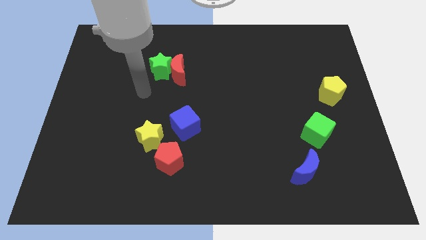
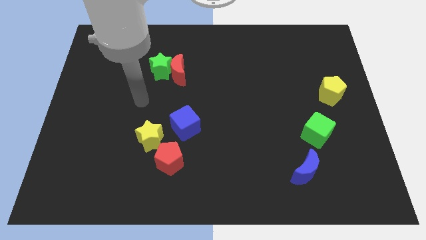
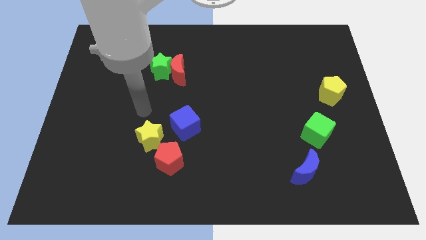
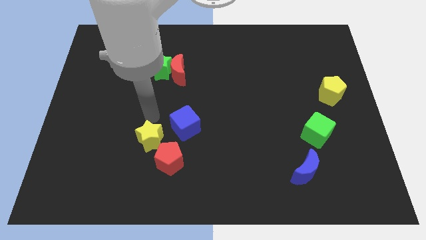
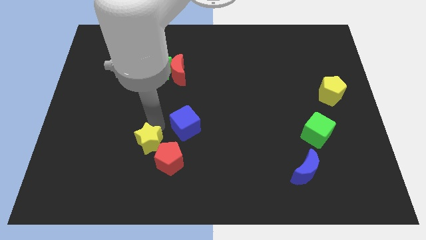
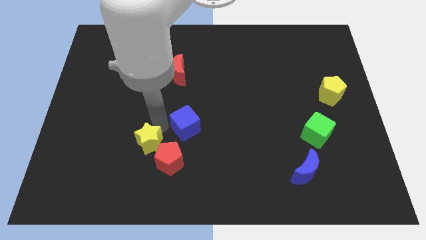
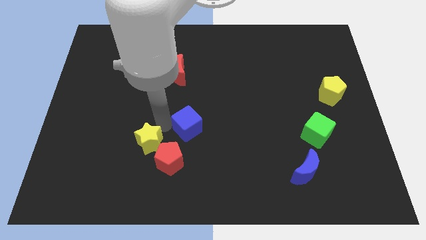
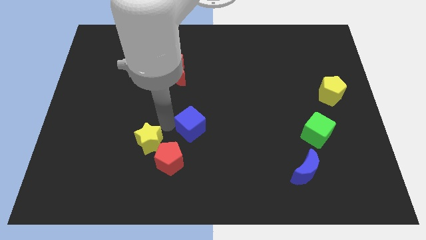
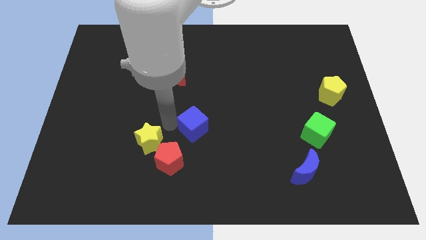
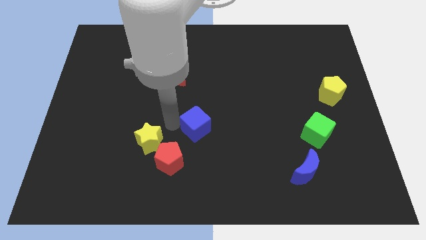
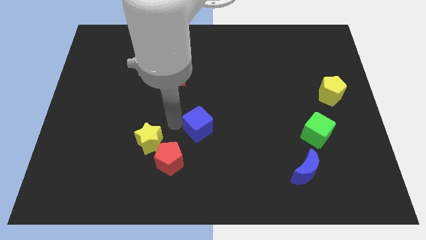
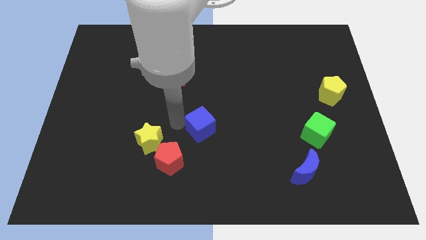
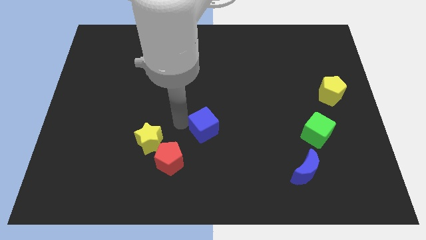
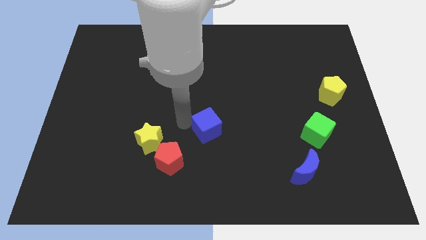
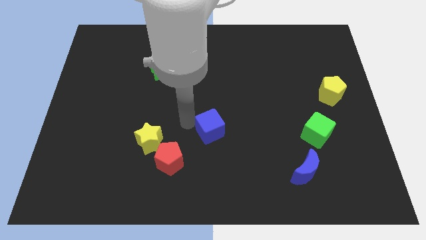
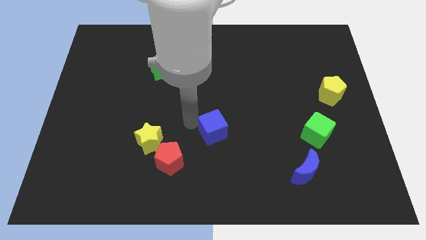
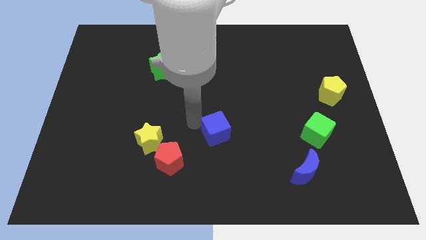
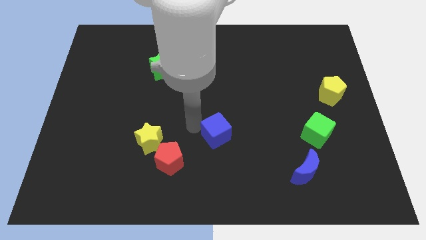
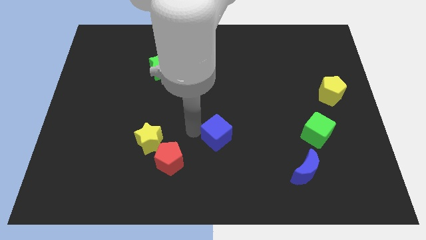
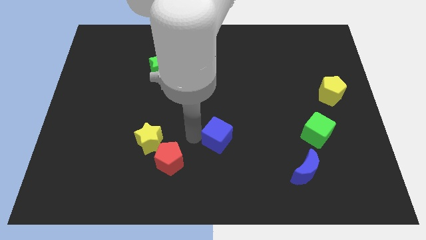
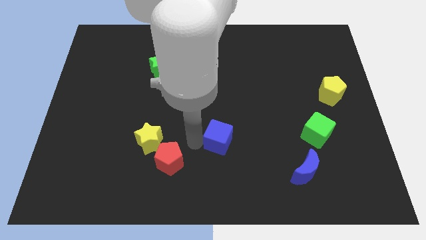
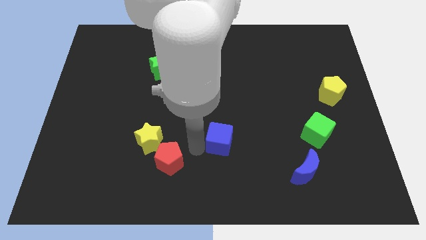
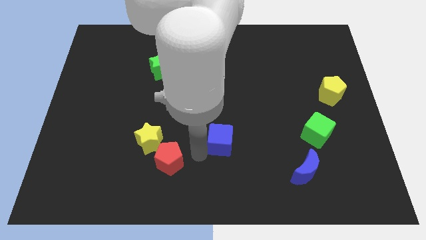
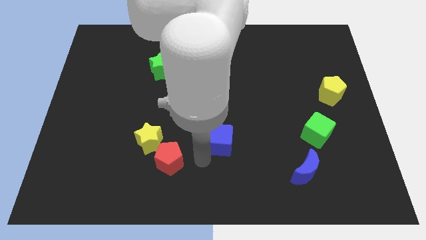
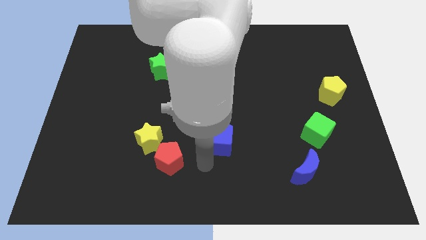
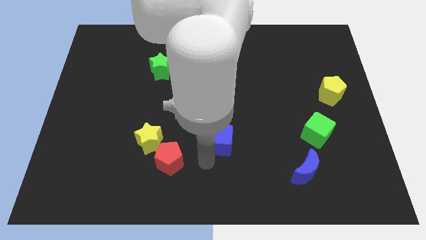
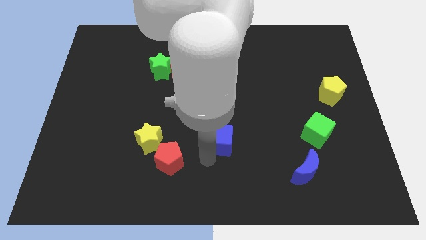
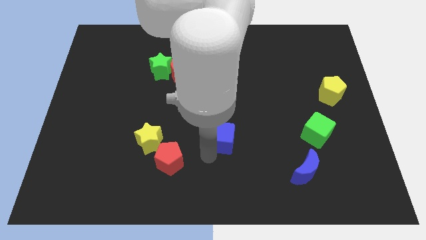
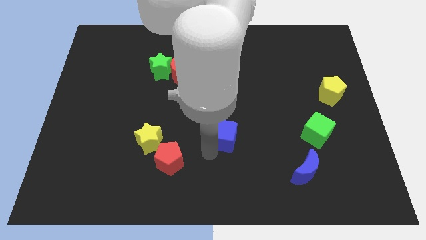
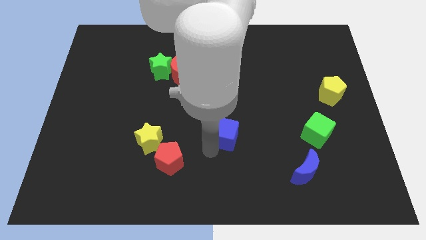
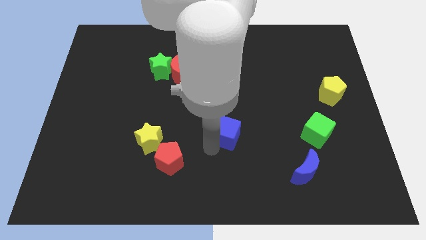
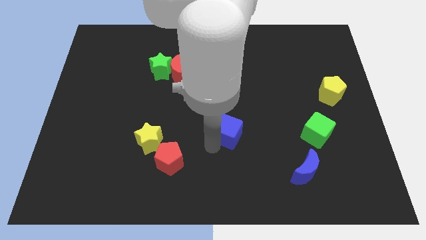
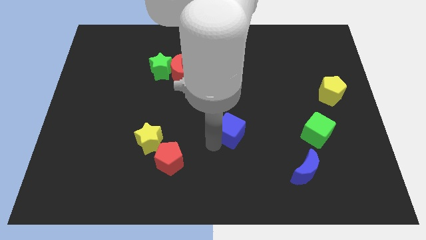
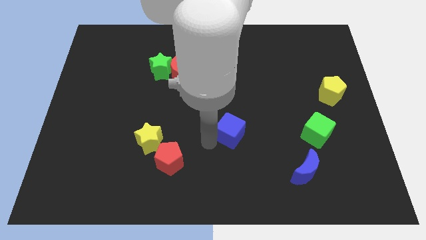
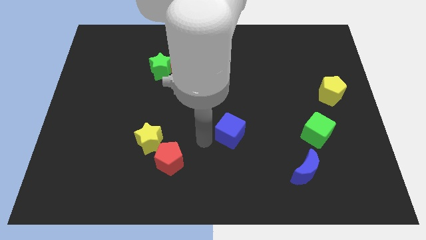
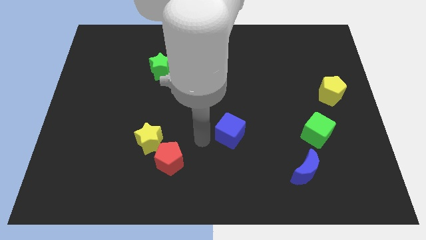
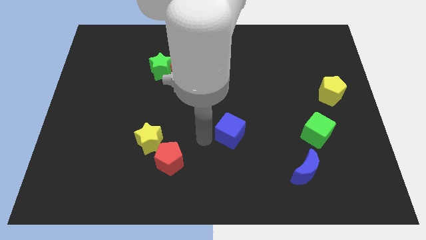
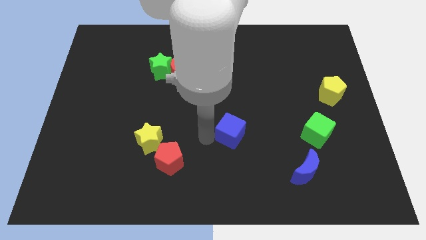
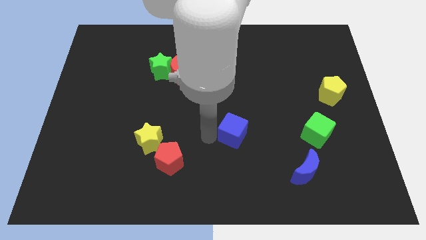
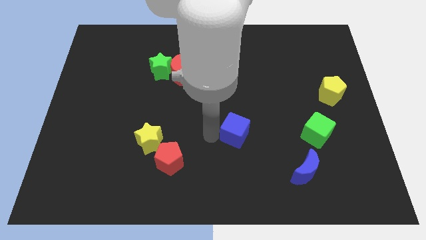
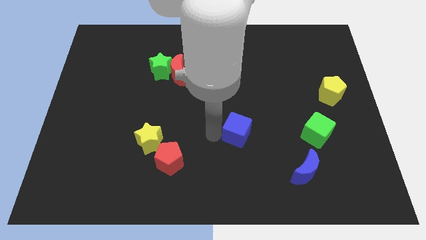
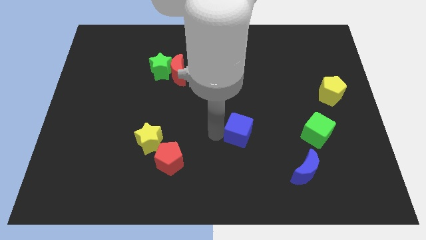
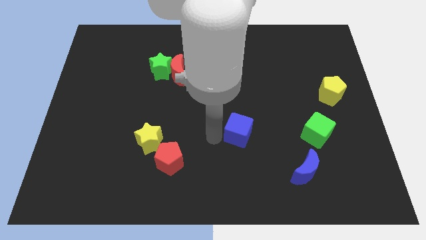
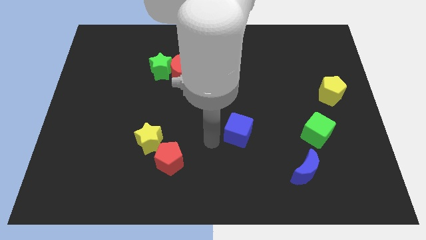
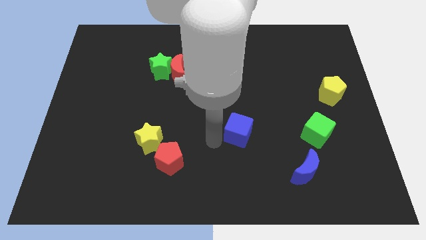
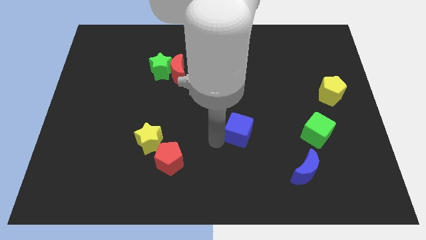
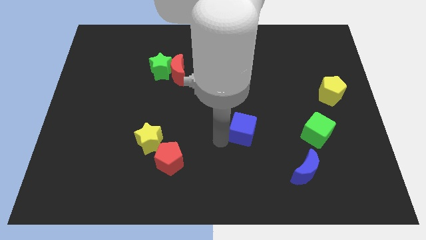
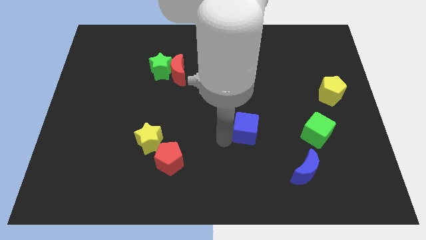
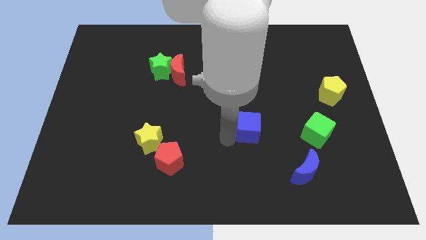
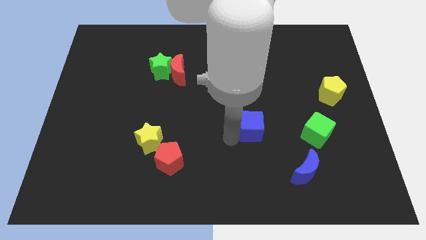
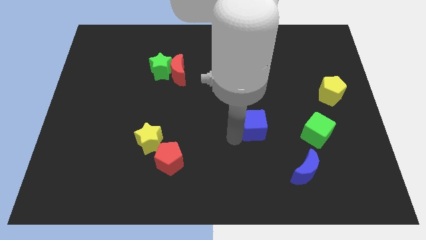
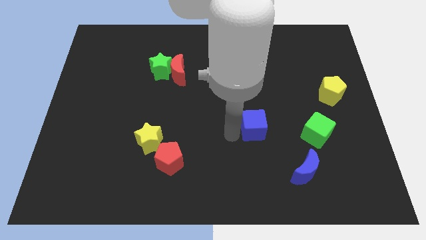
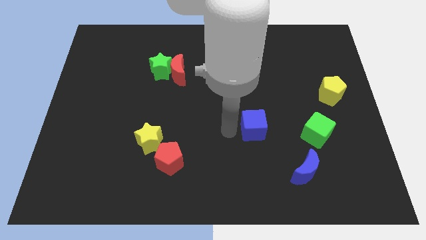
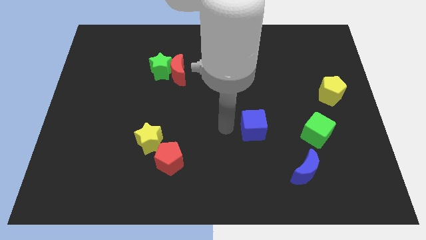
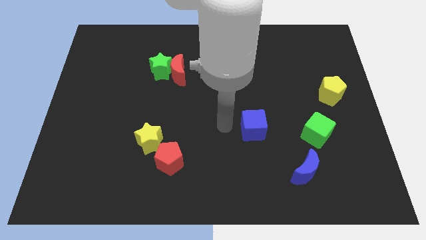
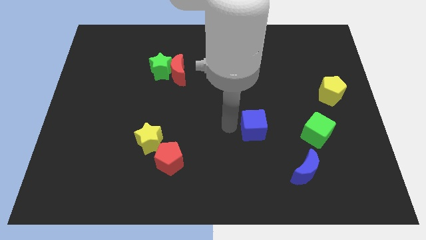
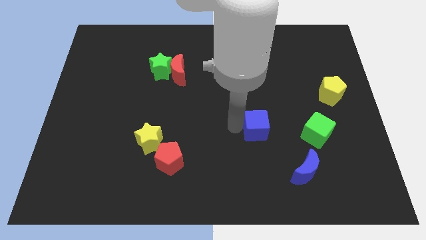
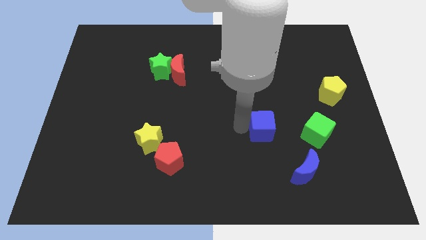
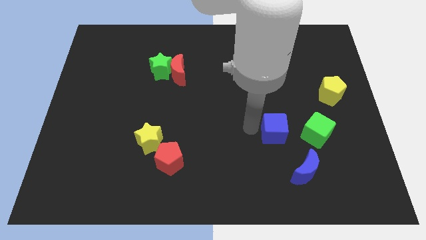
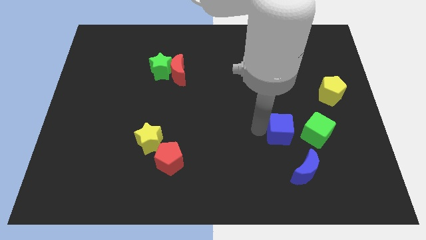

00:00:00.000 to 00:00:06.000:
move the blue cube to the top of the blue moon

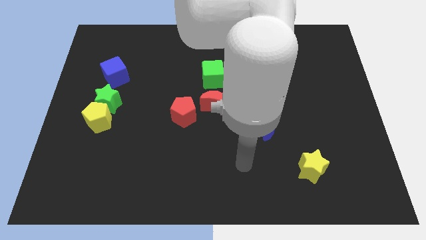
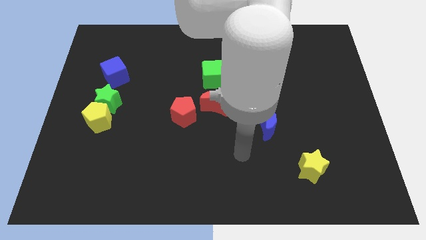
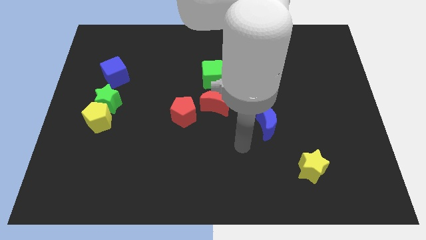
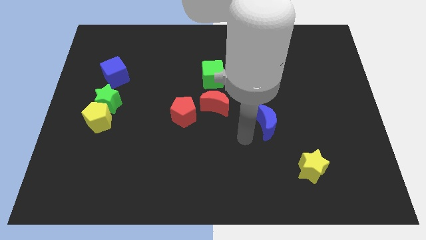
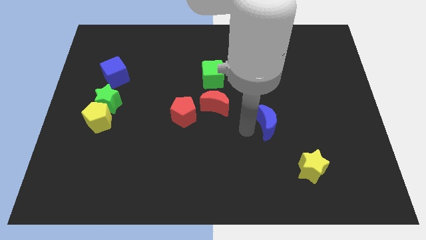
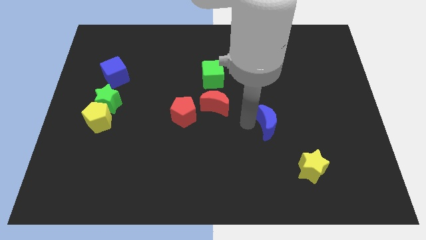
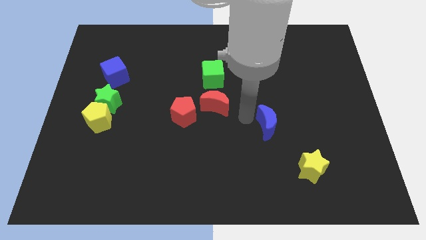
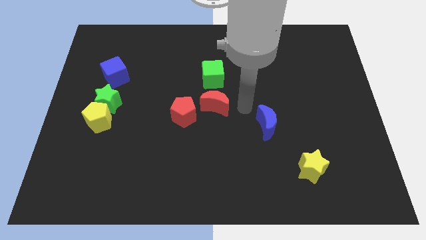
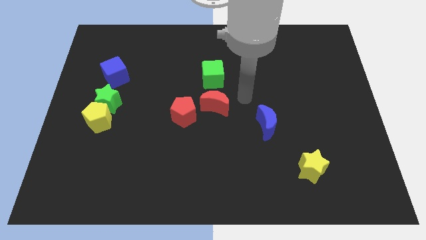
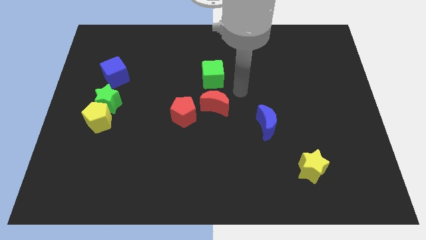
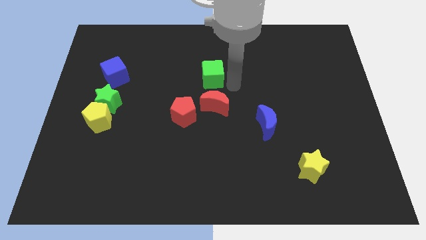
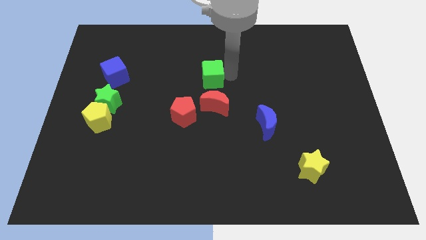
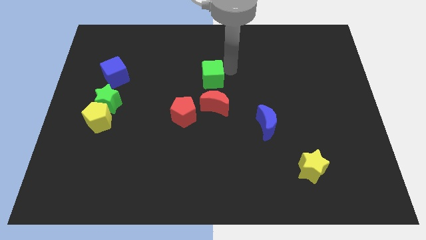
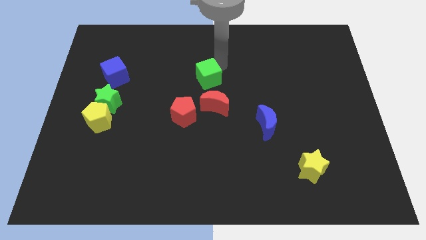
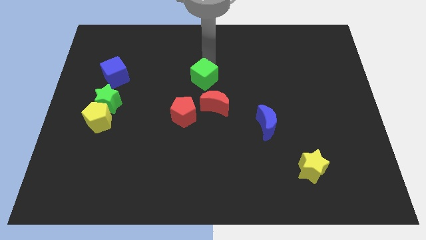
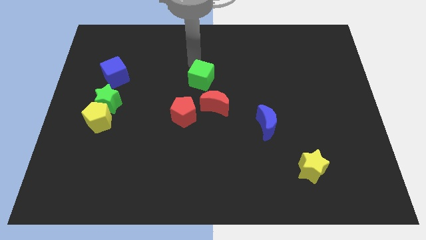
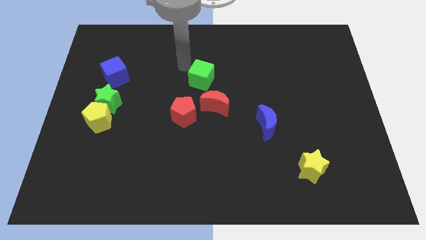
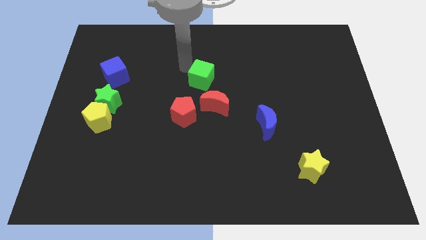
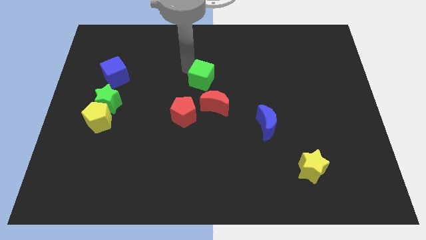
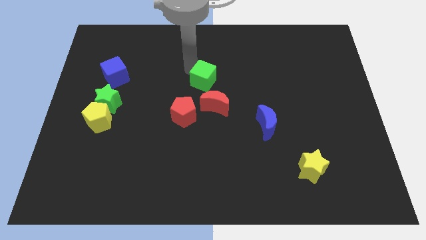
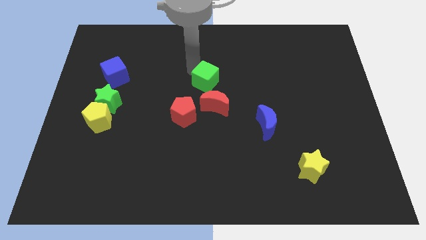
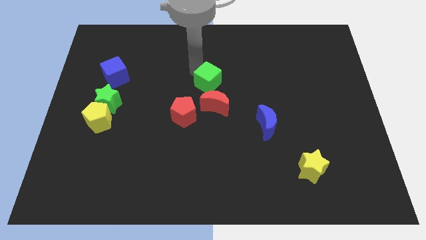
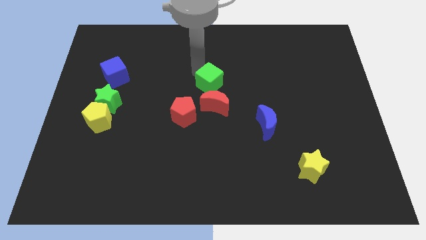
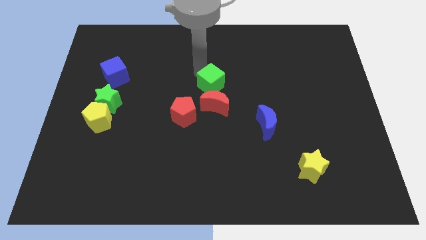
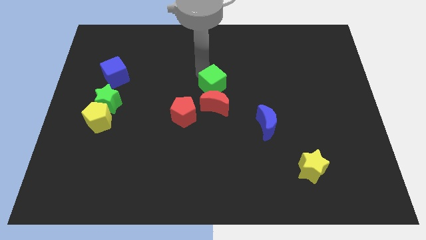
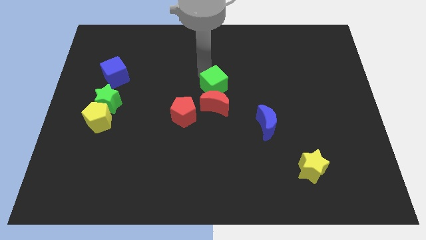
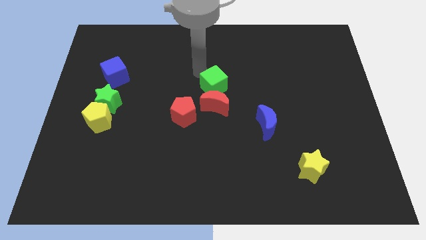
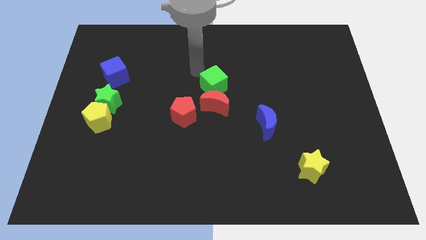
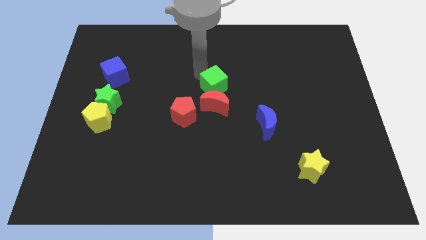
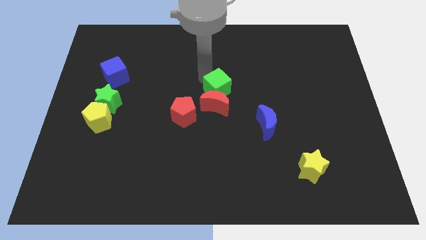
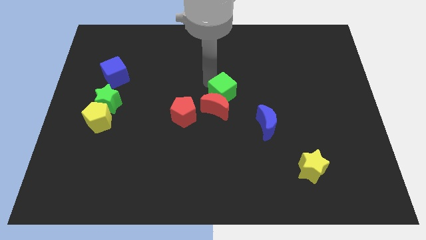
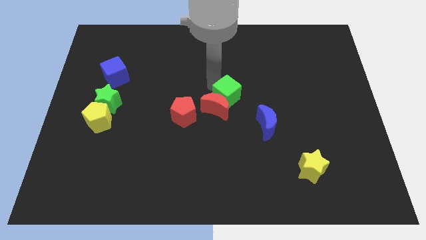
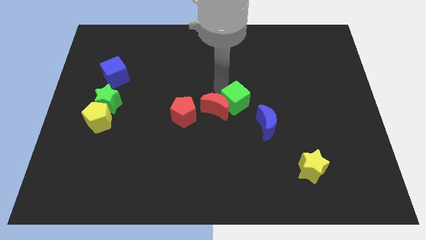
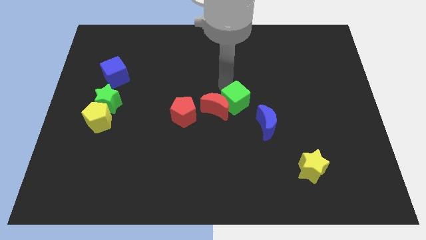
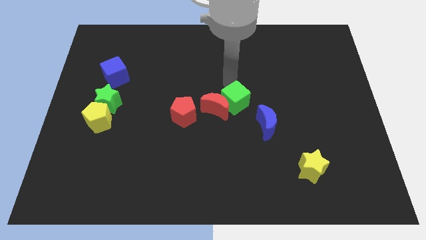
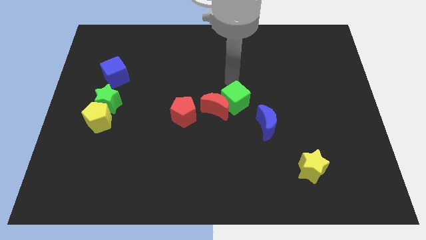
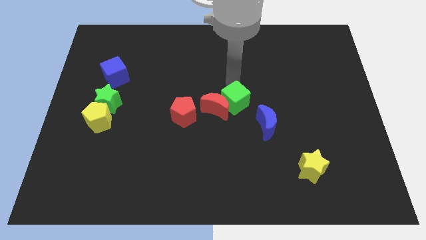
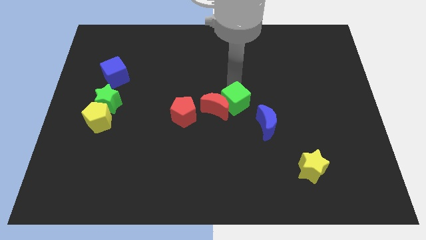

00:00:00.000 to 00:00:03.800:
move the green cube diagonally down and to the right of the red moon
